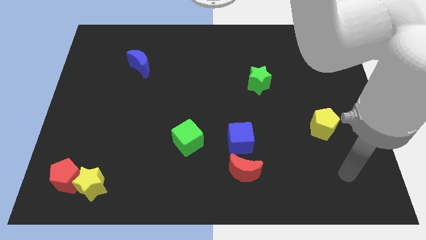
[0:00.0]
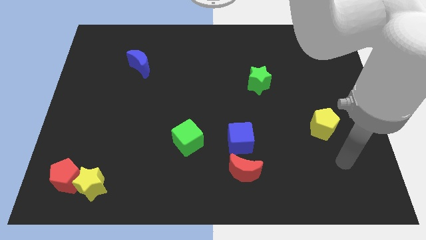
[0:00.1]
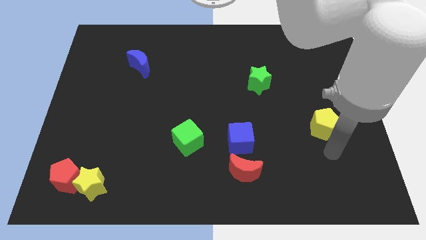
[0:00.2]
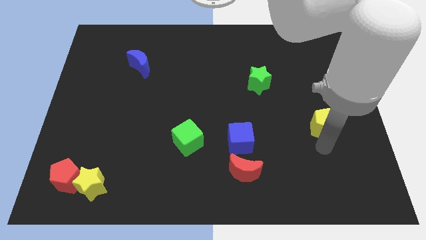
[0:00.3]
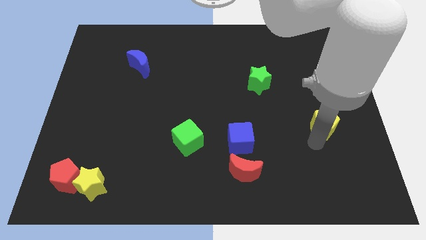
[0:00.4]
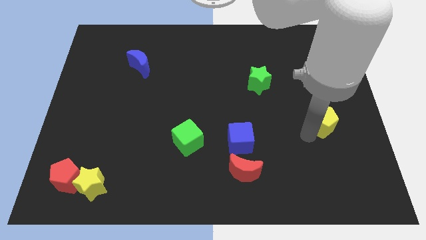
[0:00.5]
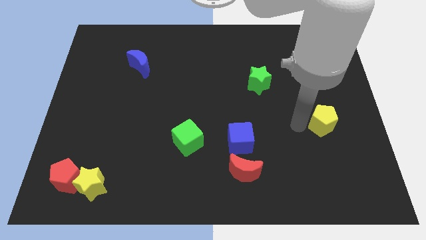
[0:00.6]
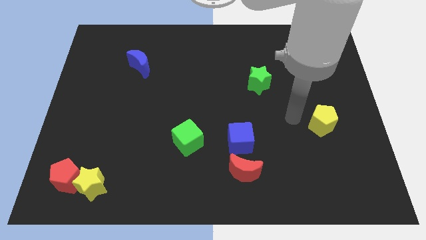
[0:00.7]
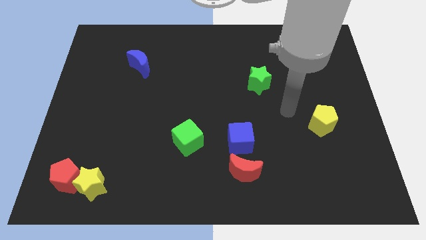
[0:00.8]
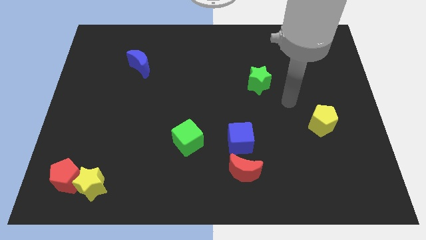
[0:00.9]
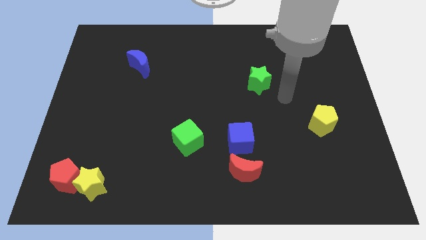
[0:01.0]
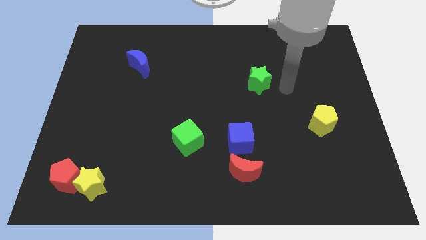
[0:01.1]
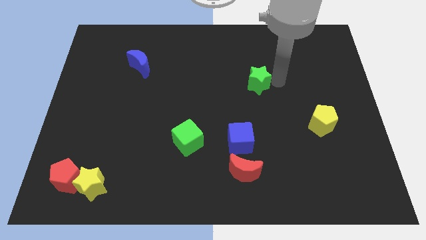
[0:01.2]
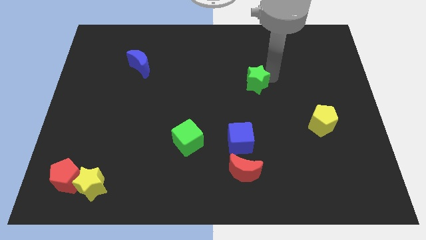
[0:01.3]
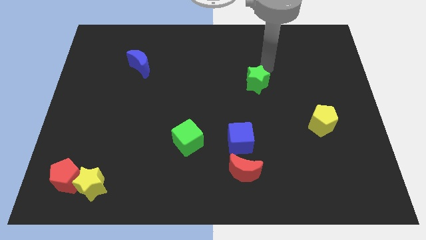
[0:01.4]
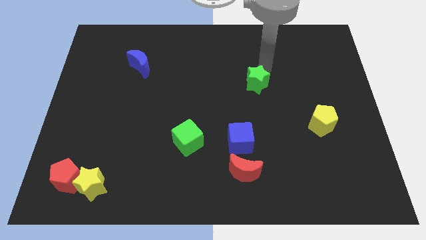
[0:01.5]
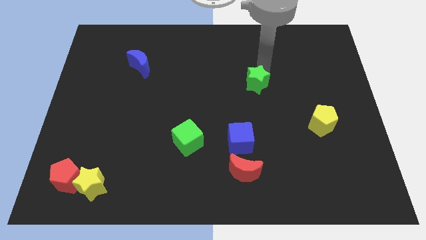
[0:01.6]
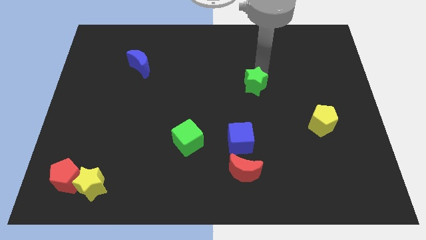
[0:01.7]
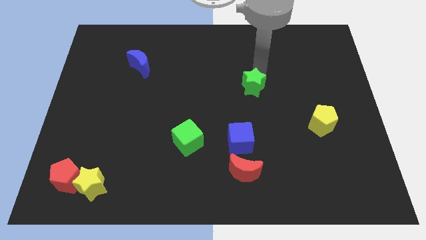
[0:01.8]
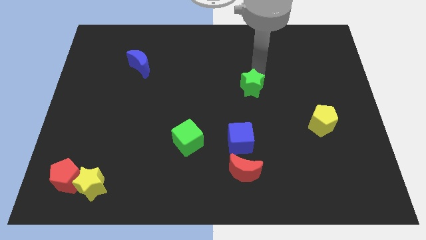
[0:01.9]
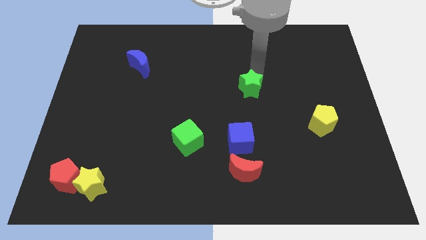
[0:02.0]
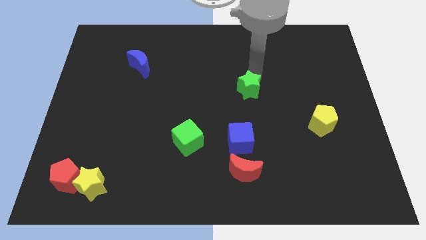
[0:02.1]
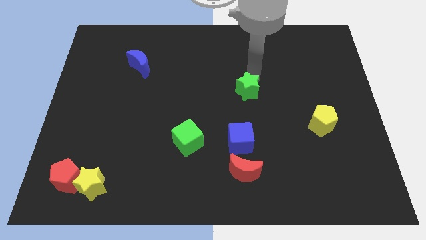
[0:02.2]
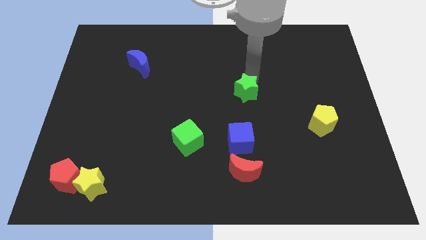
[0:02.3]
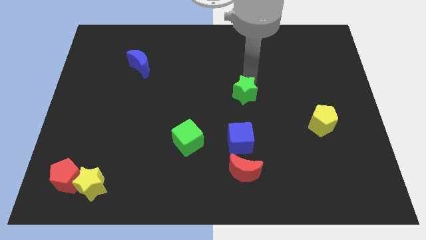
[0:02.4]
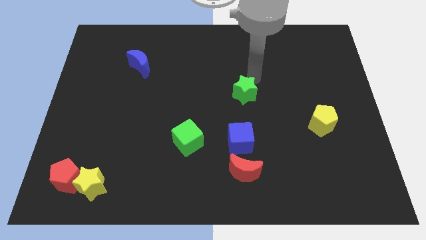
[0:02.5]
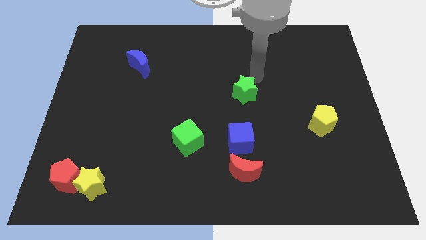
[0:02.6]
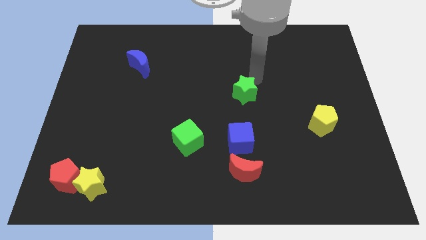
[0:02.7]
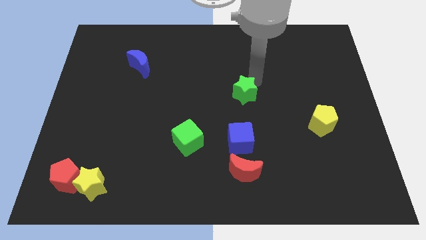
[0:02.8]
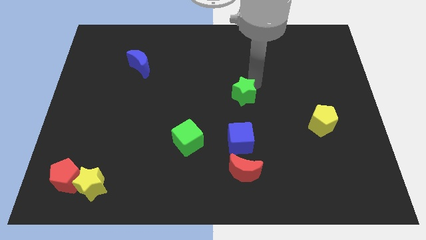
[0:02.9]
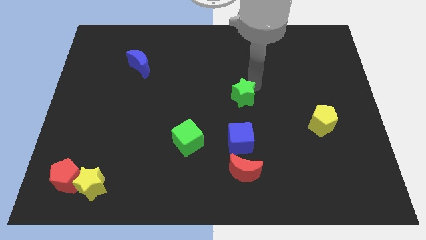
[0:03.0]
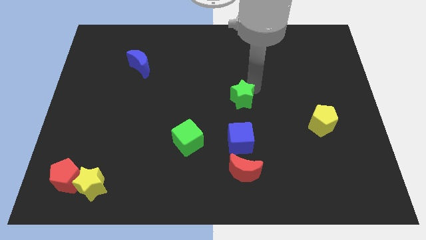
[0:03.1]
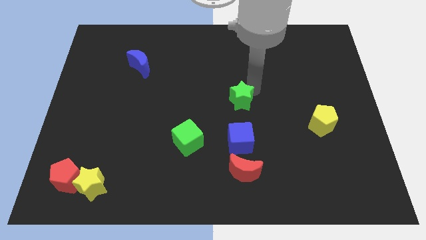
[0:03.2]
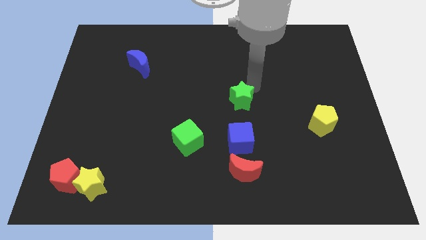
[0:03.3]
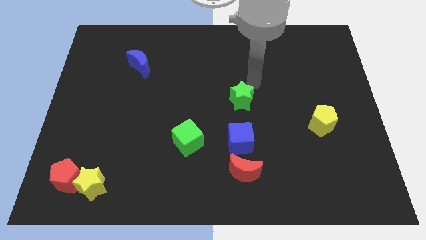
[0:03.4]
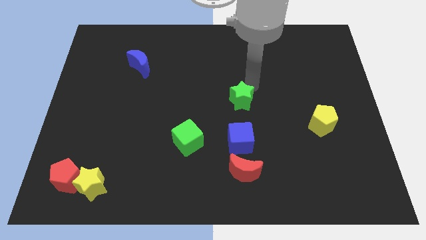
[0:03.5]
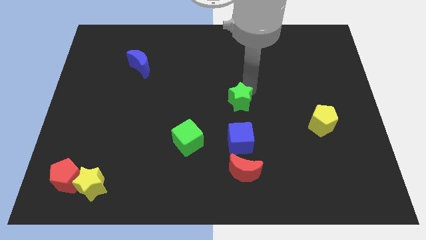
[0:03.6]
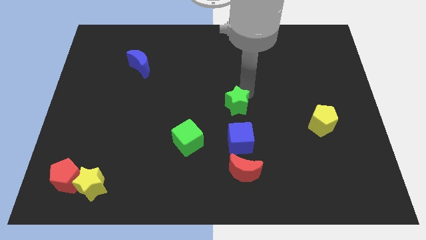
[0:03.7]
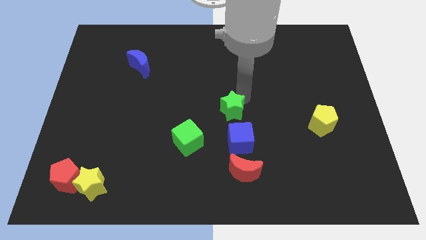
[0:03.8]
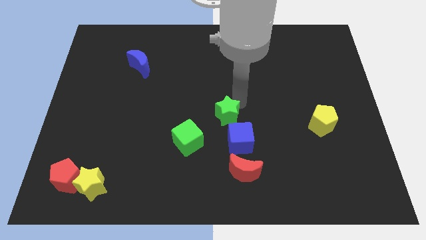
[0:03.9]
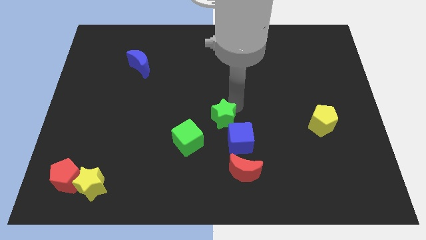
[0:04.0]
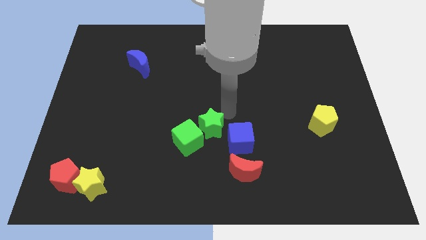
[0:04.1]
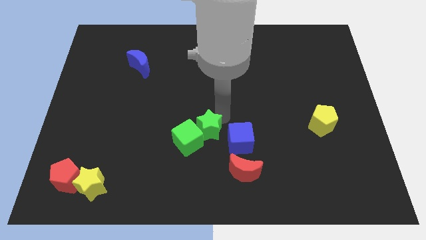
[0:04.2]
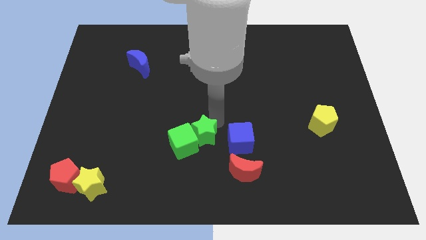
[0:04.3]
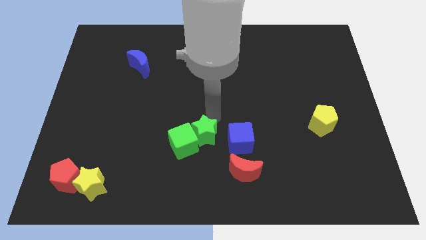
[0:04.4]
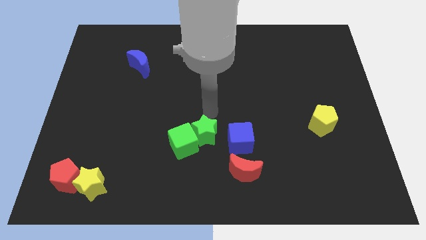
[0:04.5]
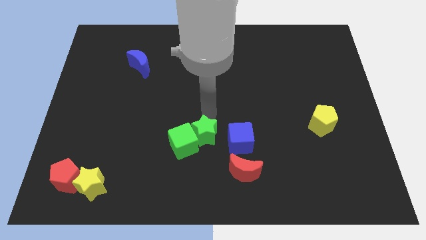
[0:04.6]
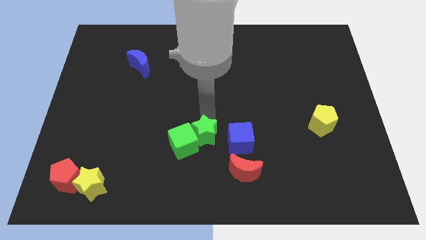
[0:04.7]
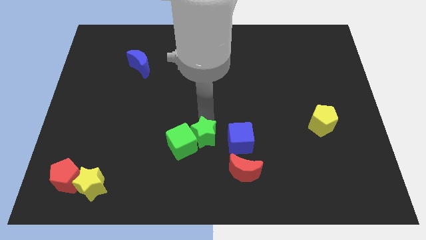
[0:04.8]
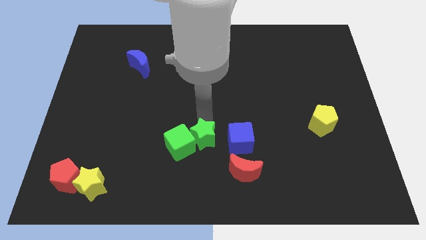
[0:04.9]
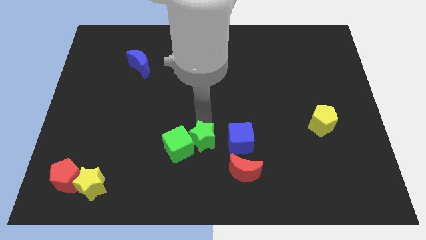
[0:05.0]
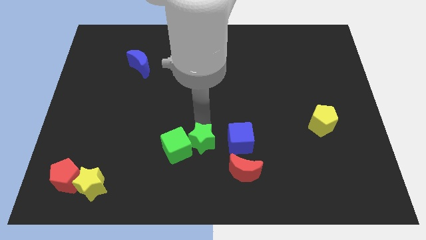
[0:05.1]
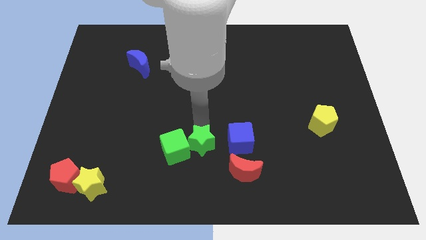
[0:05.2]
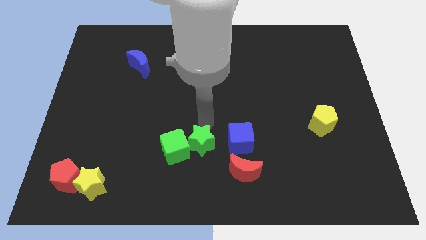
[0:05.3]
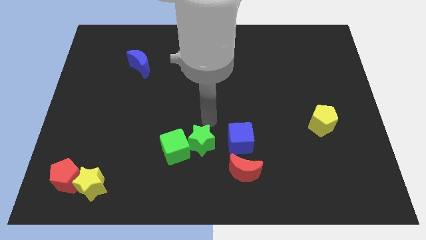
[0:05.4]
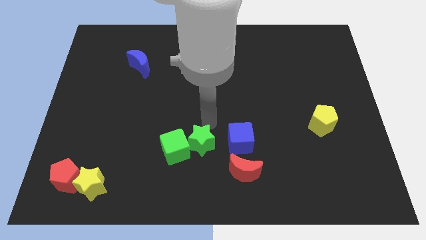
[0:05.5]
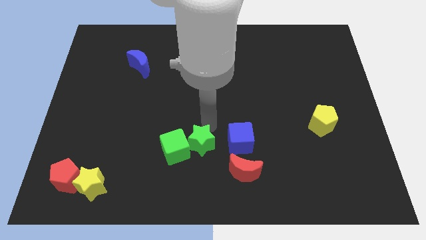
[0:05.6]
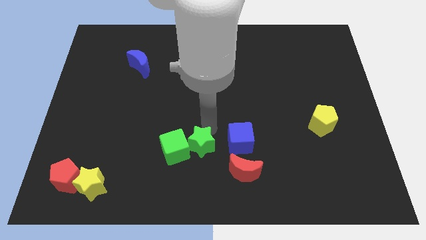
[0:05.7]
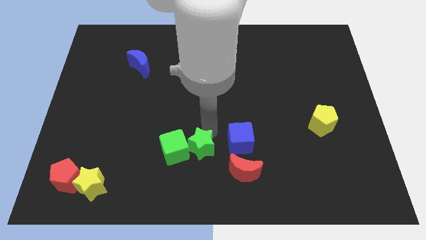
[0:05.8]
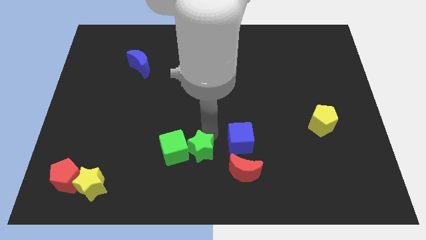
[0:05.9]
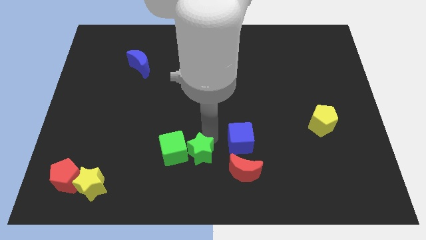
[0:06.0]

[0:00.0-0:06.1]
put the green star left of the red moon

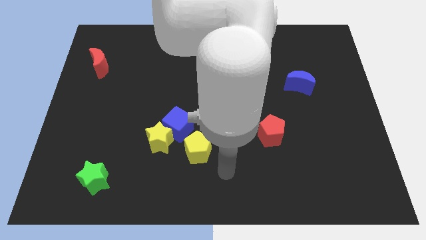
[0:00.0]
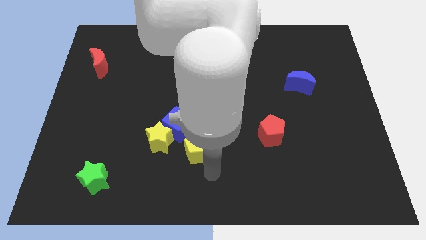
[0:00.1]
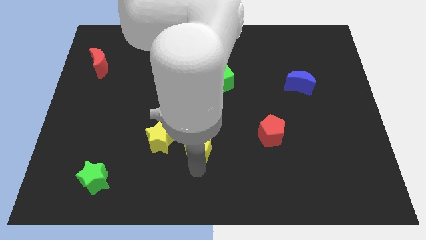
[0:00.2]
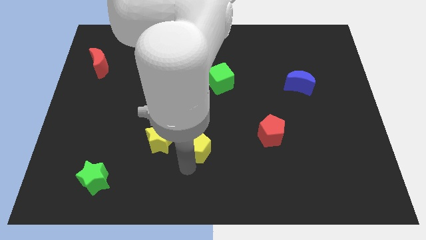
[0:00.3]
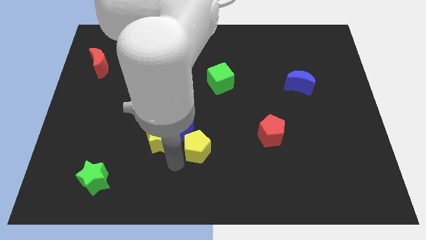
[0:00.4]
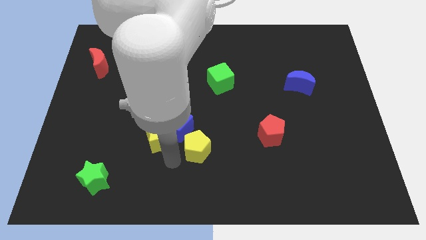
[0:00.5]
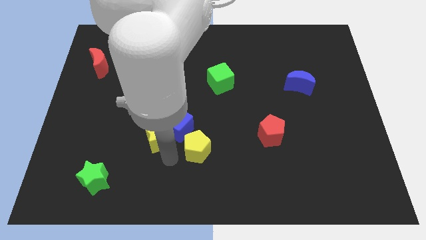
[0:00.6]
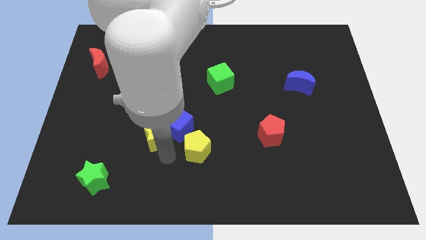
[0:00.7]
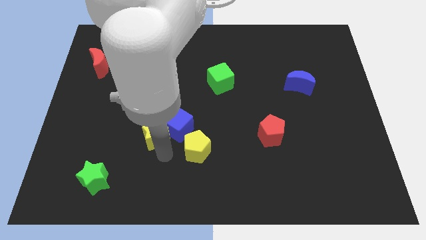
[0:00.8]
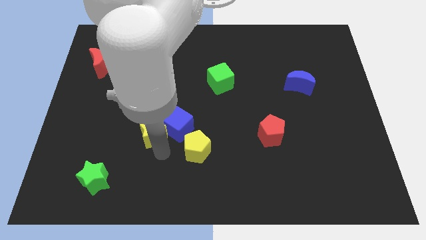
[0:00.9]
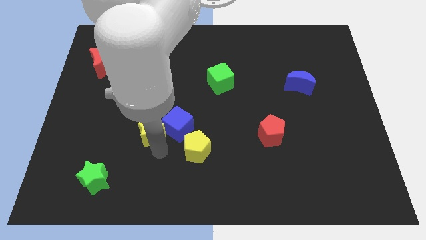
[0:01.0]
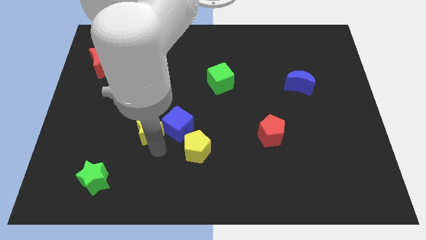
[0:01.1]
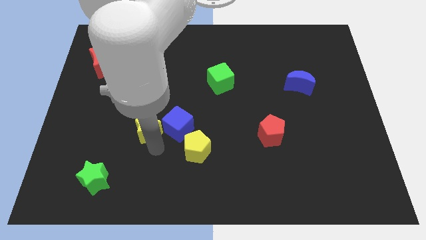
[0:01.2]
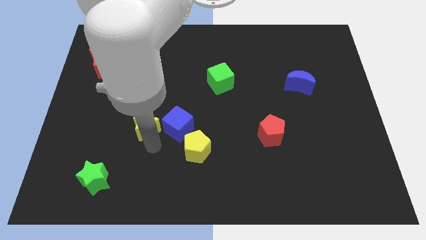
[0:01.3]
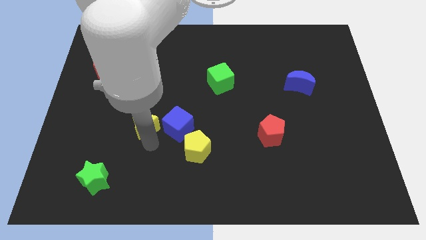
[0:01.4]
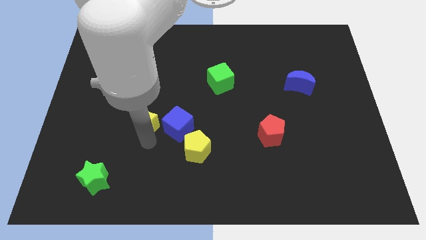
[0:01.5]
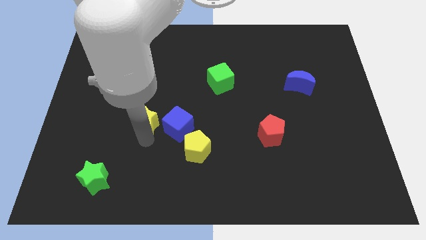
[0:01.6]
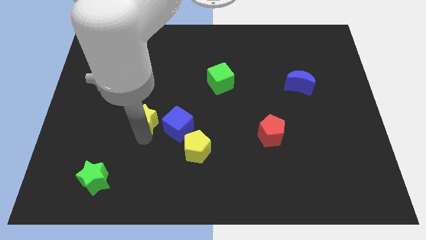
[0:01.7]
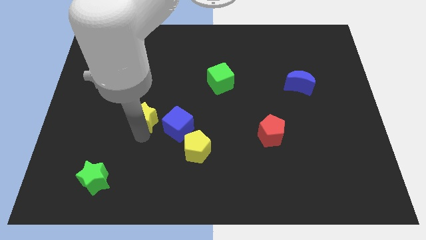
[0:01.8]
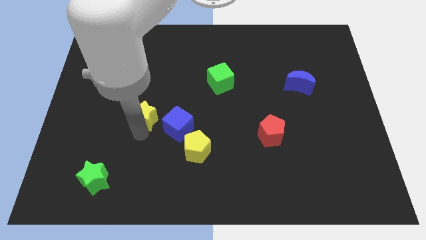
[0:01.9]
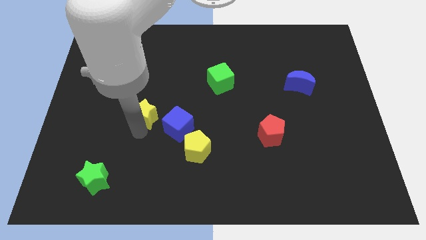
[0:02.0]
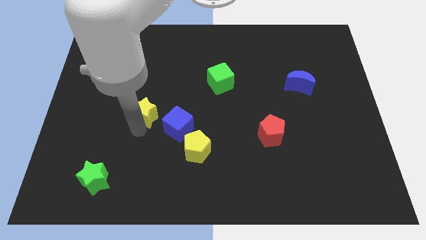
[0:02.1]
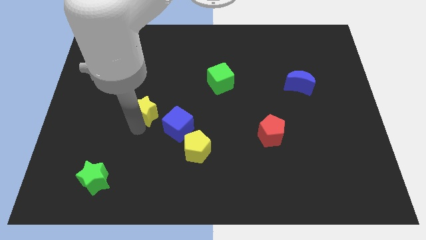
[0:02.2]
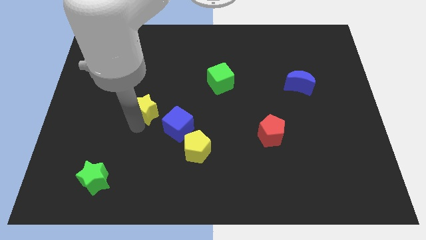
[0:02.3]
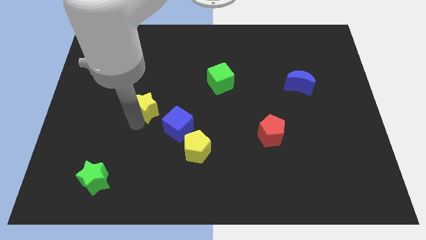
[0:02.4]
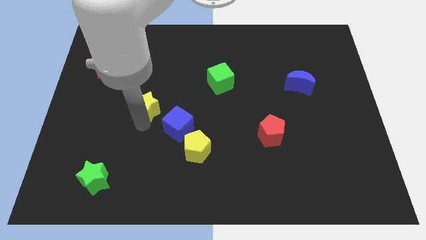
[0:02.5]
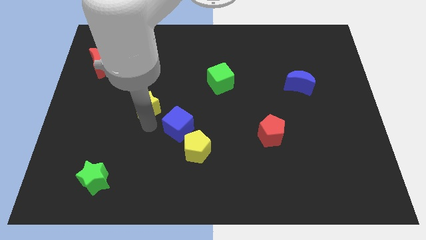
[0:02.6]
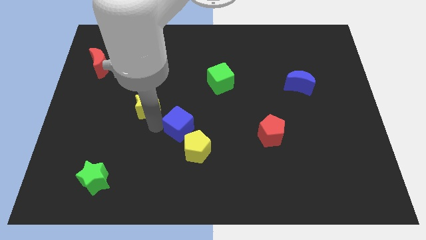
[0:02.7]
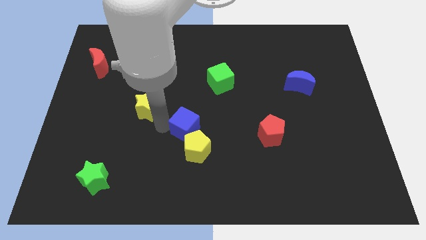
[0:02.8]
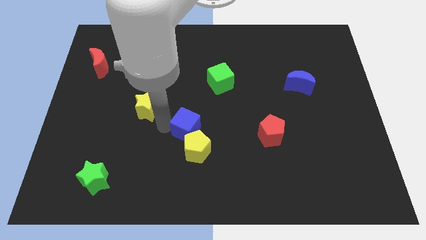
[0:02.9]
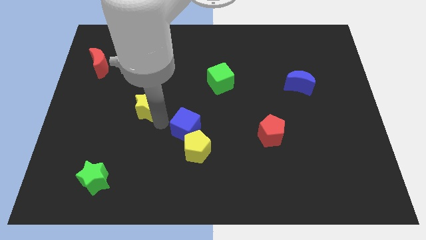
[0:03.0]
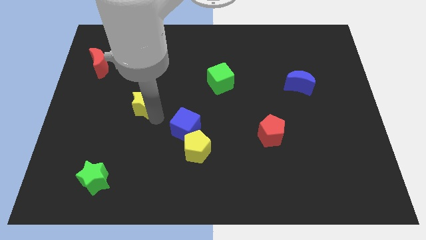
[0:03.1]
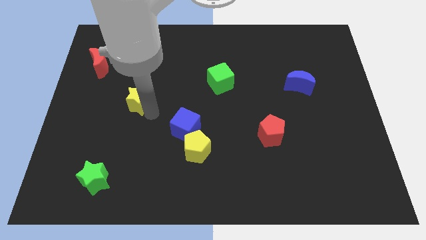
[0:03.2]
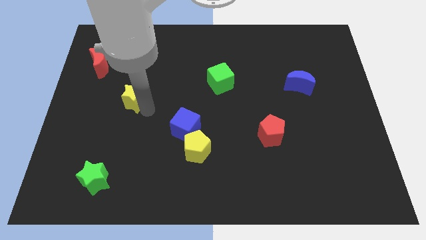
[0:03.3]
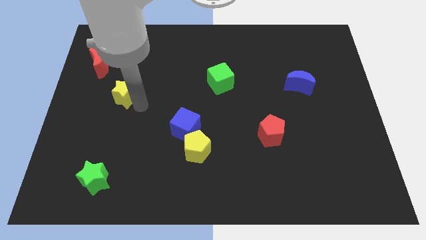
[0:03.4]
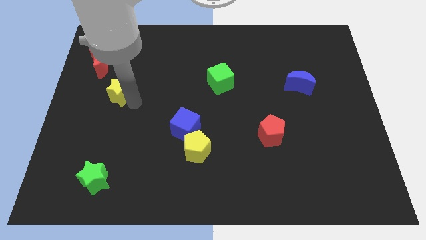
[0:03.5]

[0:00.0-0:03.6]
slide the yellow star to the bottom right side of the red moon
